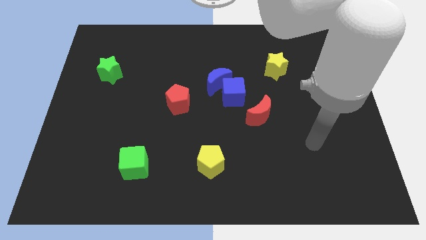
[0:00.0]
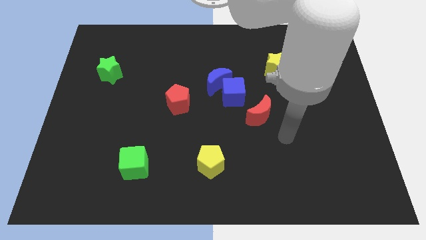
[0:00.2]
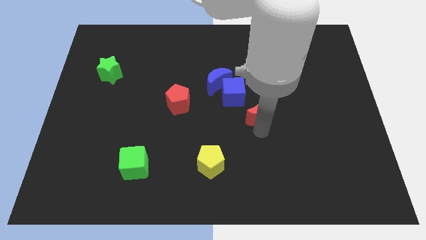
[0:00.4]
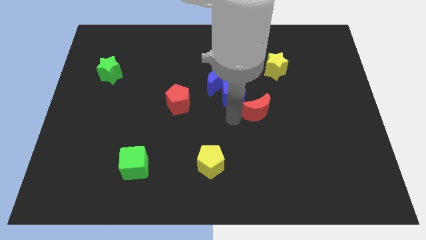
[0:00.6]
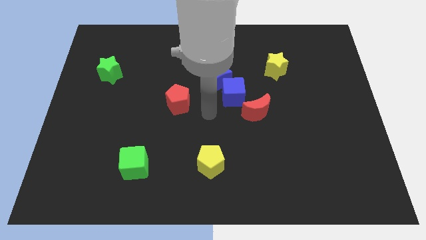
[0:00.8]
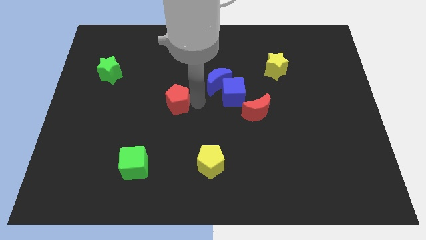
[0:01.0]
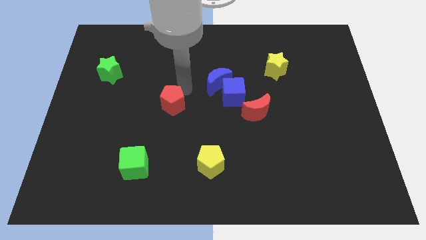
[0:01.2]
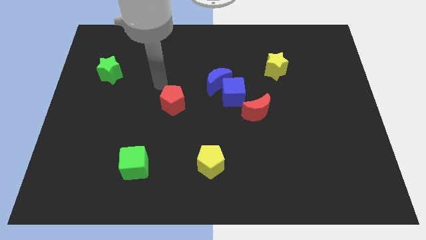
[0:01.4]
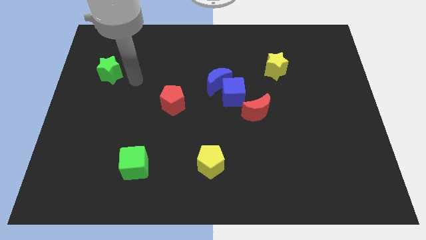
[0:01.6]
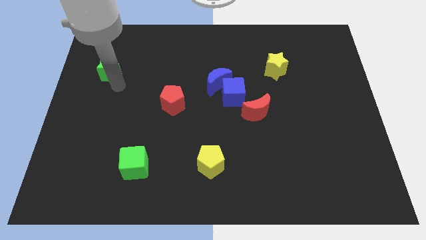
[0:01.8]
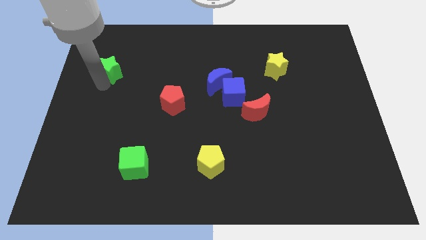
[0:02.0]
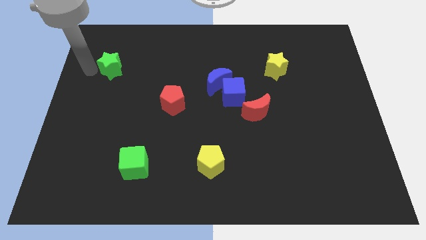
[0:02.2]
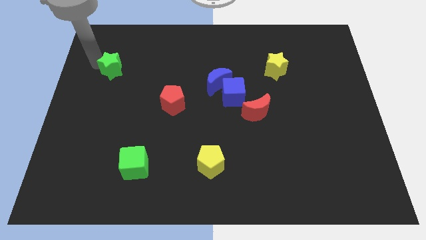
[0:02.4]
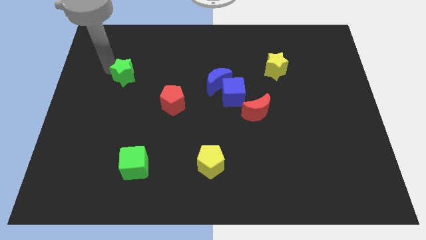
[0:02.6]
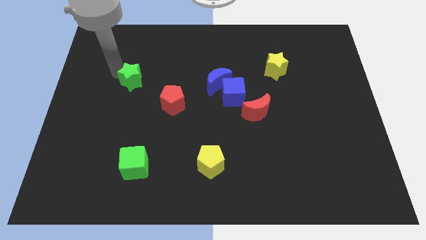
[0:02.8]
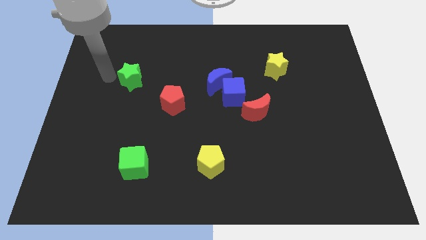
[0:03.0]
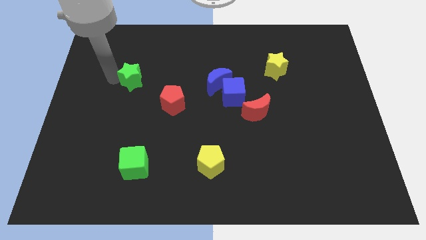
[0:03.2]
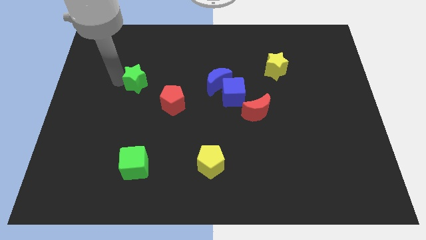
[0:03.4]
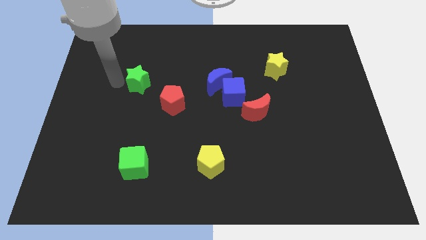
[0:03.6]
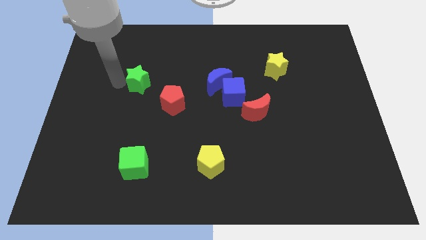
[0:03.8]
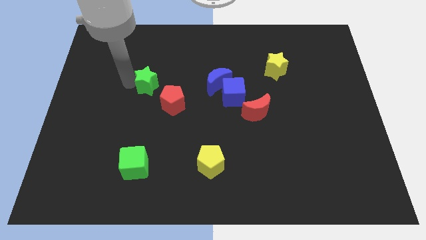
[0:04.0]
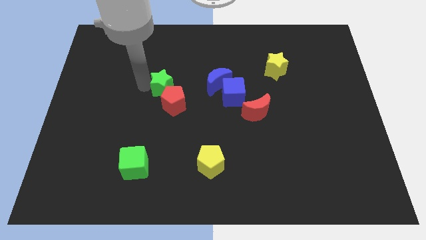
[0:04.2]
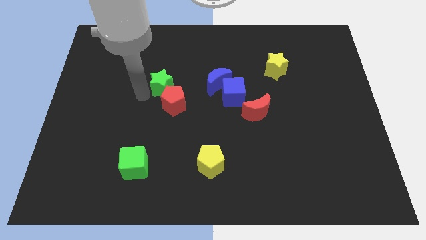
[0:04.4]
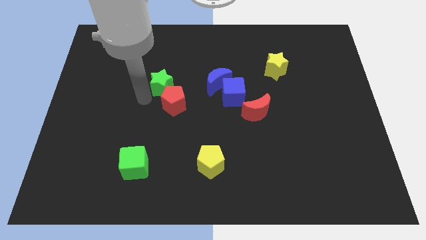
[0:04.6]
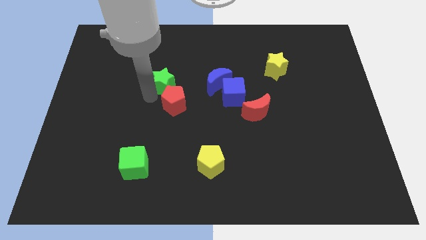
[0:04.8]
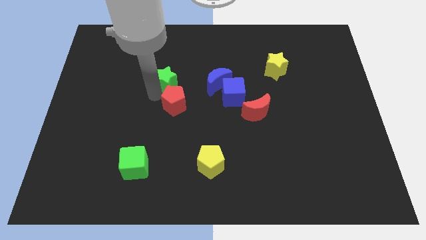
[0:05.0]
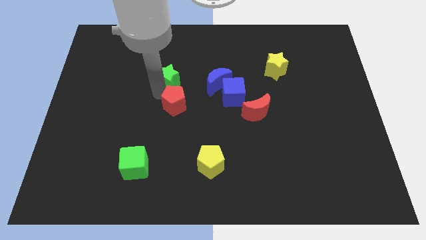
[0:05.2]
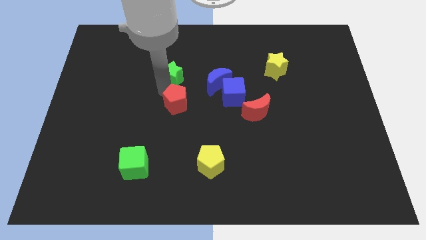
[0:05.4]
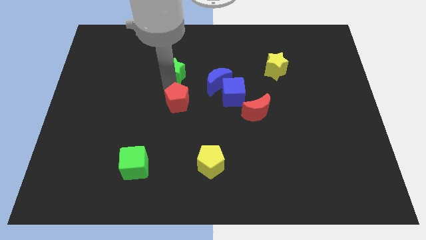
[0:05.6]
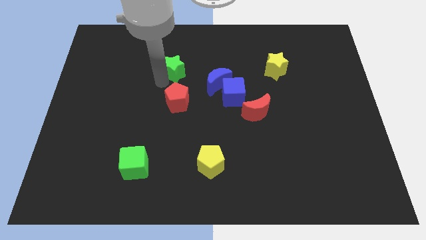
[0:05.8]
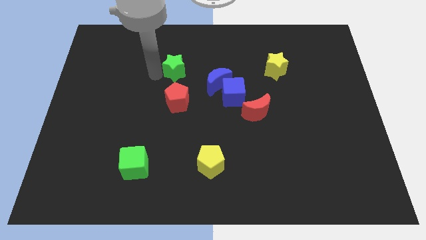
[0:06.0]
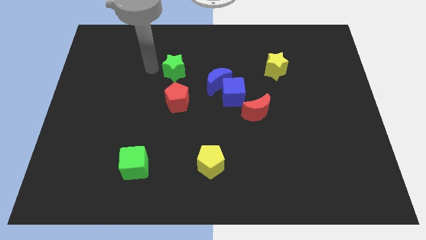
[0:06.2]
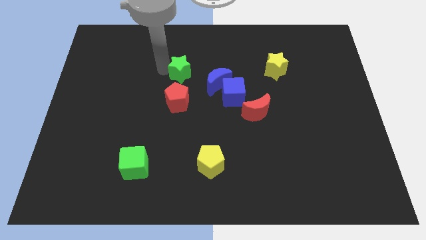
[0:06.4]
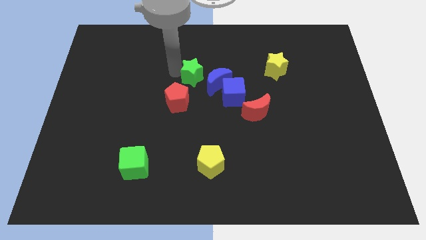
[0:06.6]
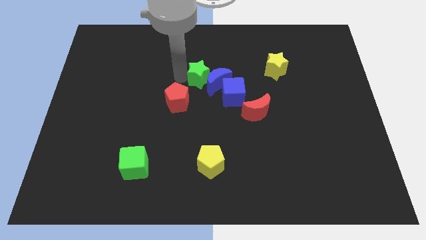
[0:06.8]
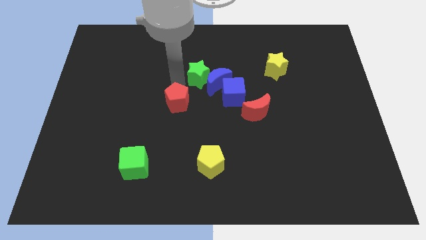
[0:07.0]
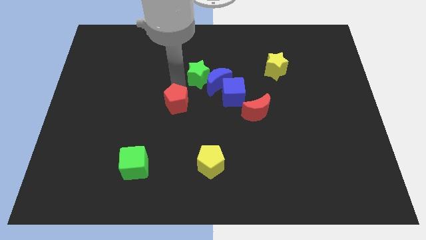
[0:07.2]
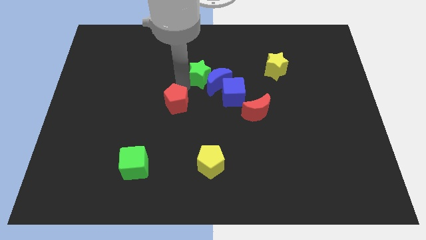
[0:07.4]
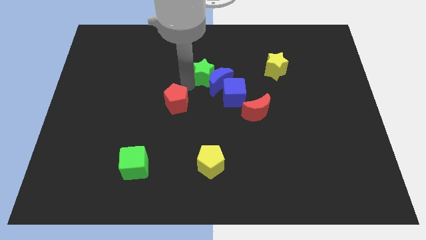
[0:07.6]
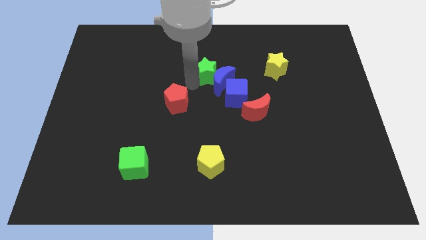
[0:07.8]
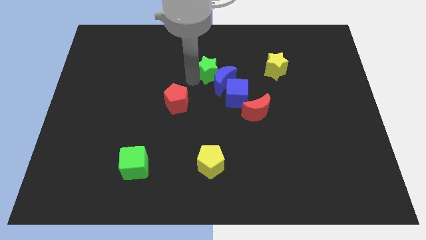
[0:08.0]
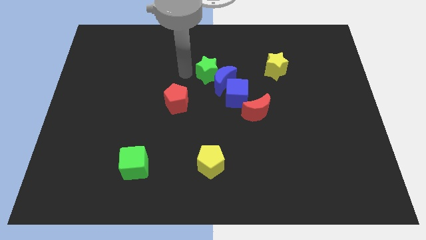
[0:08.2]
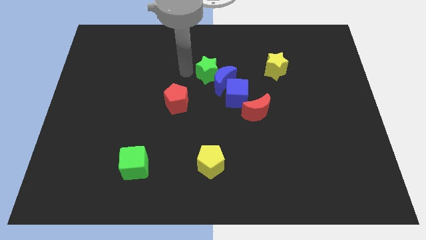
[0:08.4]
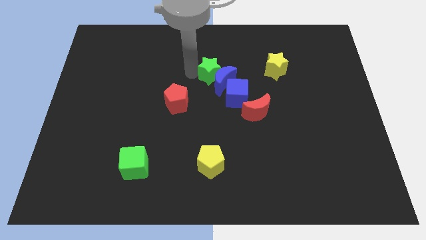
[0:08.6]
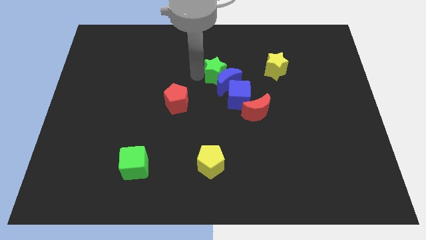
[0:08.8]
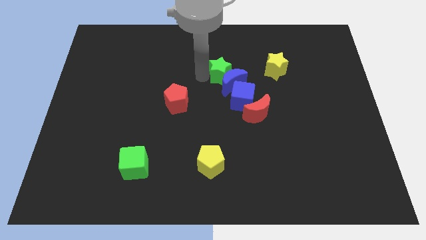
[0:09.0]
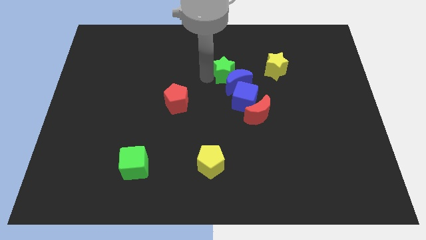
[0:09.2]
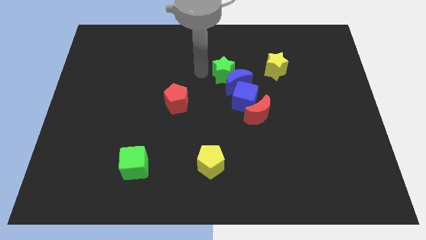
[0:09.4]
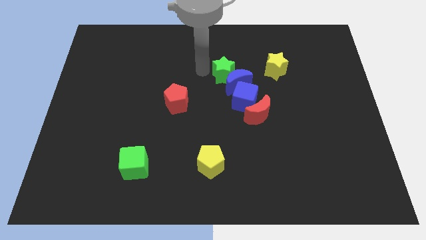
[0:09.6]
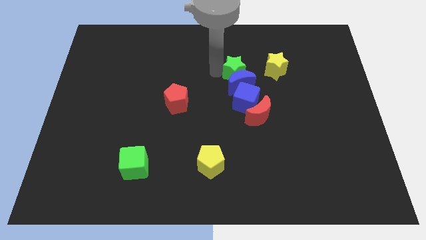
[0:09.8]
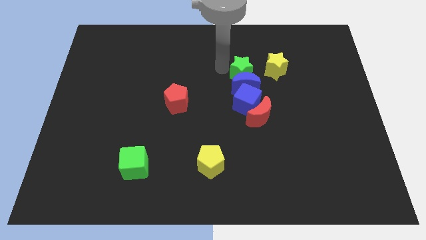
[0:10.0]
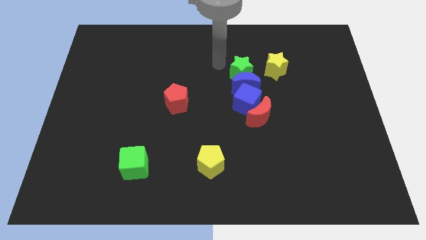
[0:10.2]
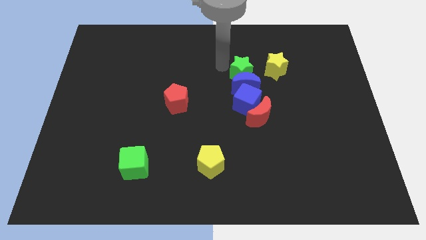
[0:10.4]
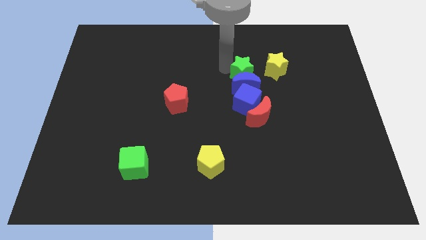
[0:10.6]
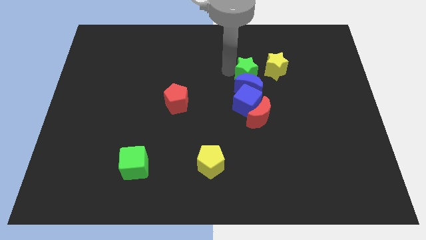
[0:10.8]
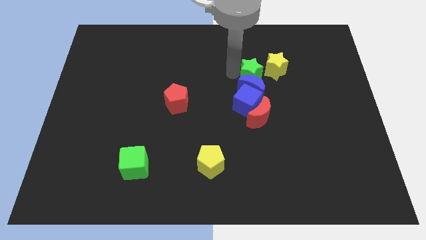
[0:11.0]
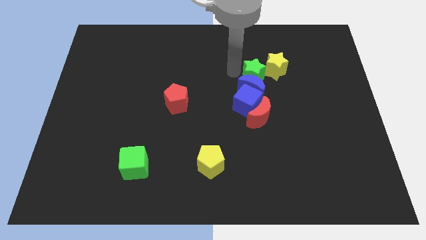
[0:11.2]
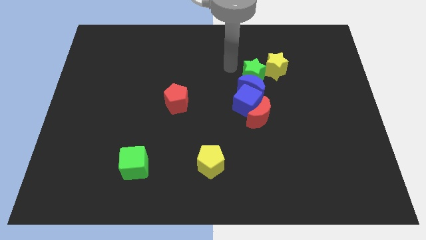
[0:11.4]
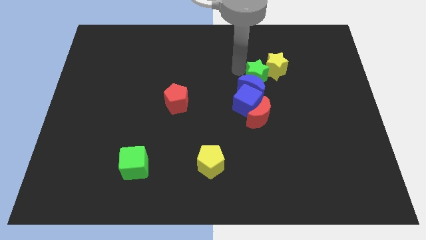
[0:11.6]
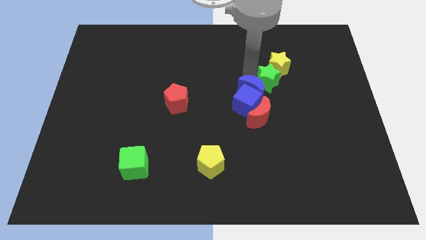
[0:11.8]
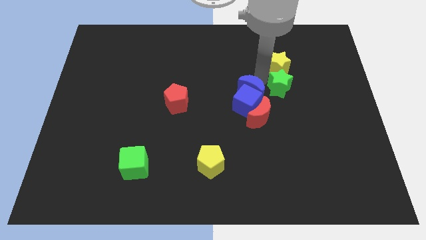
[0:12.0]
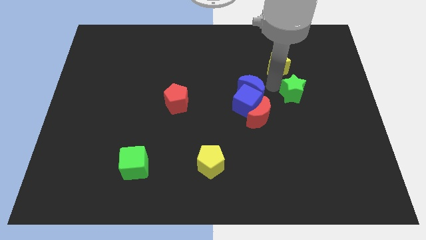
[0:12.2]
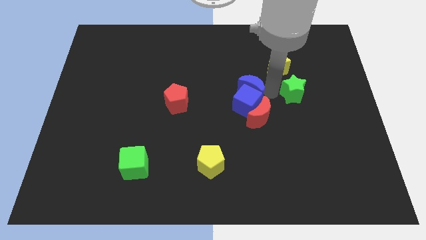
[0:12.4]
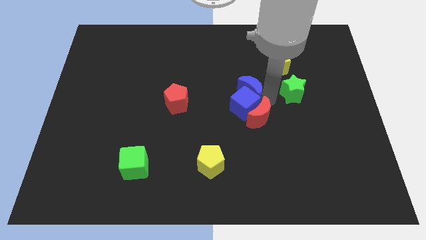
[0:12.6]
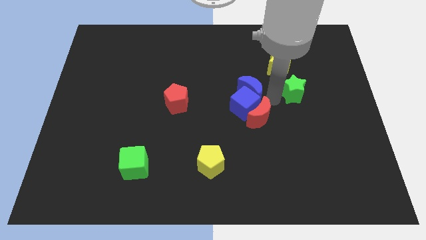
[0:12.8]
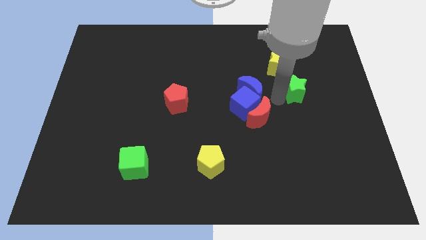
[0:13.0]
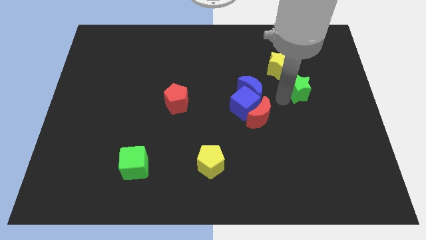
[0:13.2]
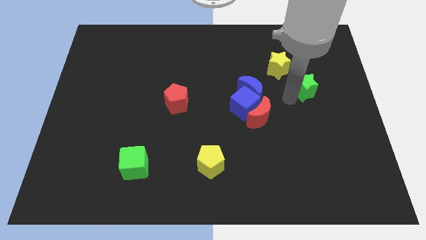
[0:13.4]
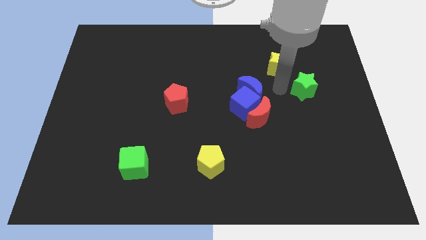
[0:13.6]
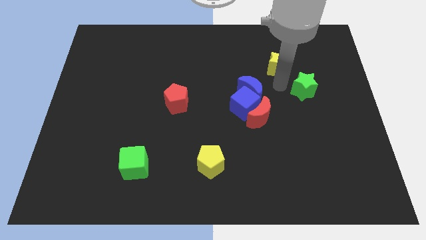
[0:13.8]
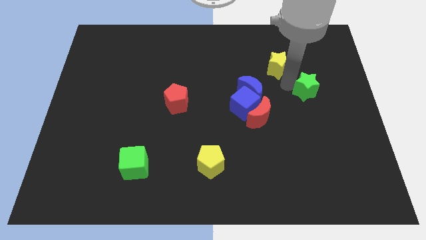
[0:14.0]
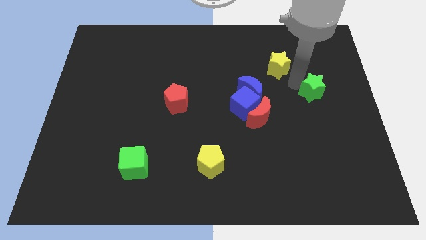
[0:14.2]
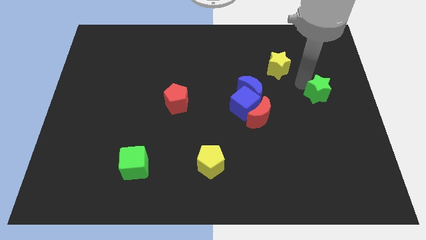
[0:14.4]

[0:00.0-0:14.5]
move the green star to the right side of the board
